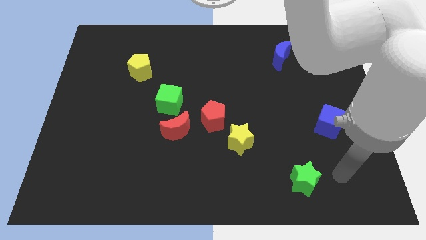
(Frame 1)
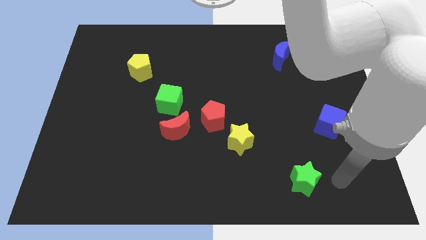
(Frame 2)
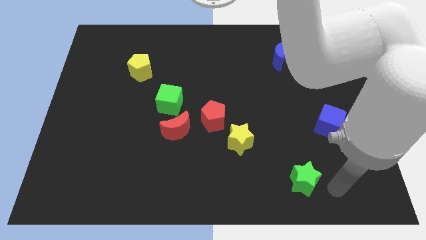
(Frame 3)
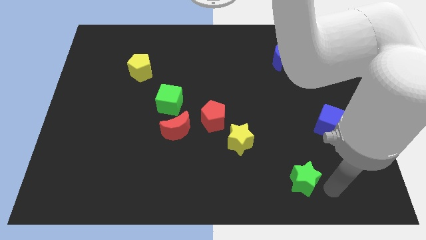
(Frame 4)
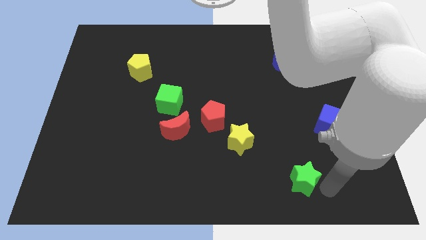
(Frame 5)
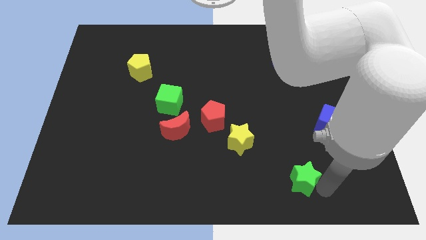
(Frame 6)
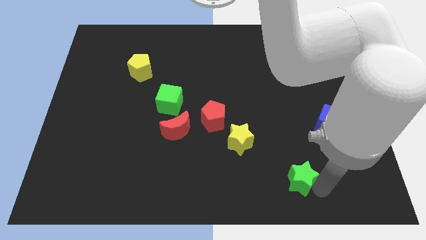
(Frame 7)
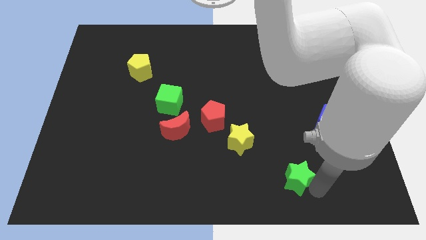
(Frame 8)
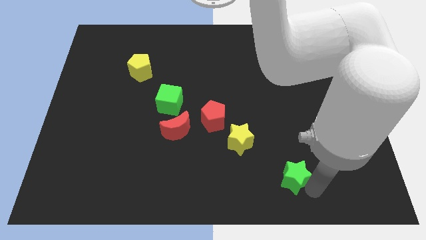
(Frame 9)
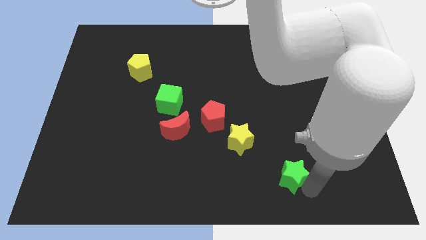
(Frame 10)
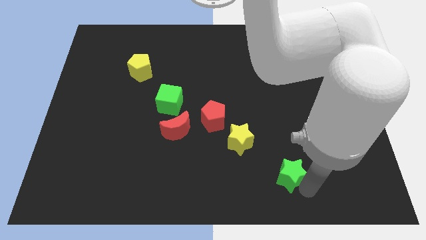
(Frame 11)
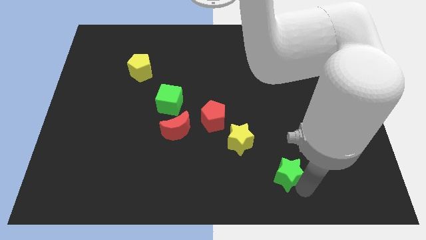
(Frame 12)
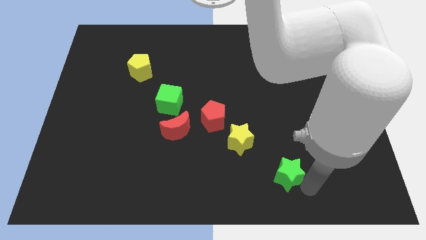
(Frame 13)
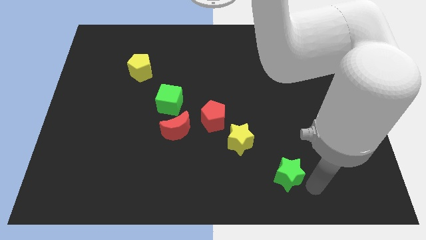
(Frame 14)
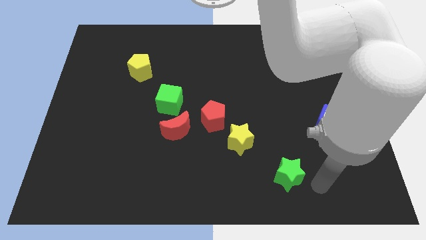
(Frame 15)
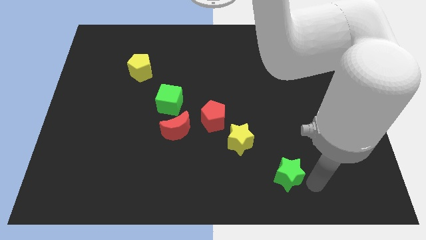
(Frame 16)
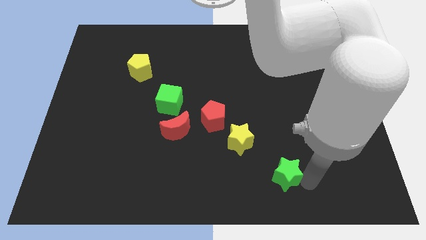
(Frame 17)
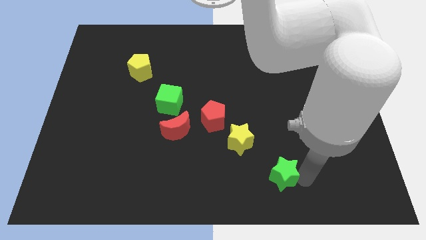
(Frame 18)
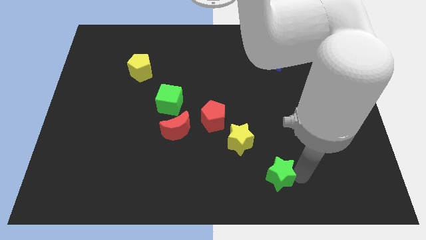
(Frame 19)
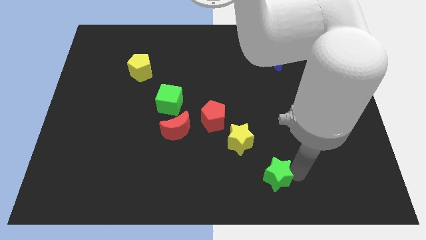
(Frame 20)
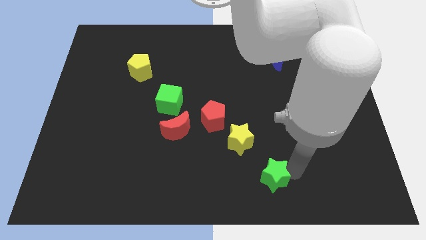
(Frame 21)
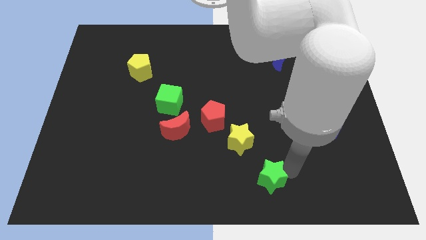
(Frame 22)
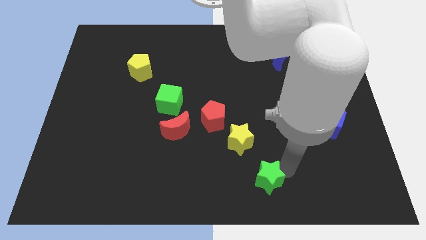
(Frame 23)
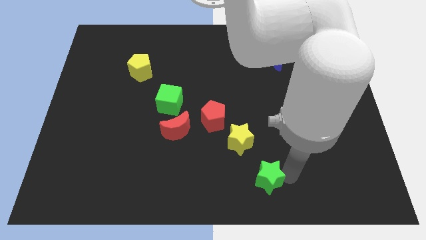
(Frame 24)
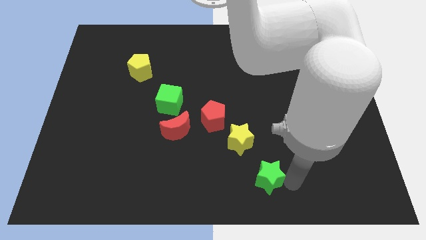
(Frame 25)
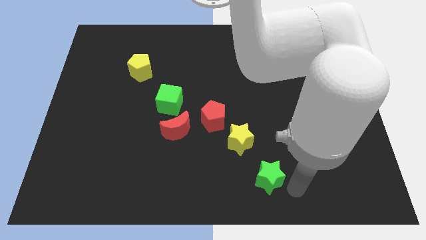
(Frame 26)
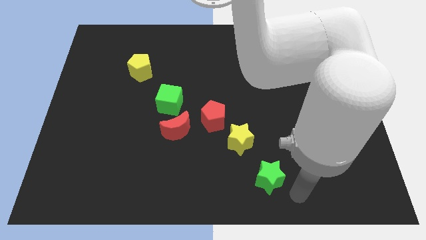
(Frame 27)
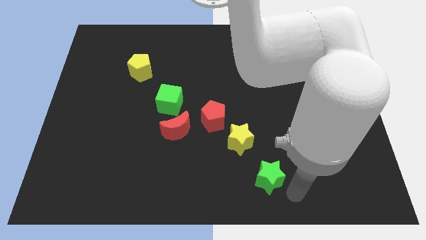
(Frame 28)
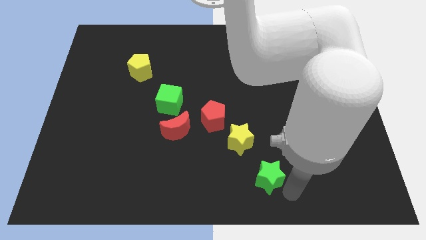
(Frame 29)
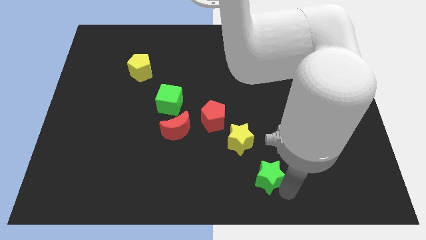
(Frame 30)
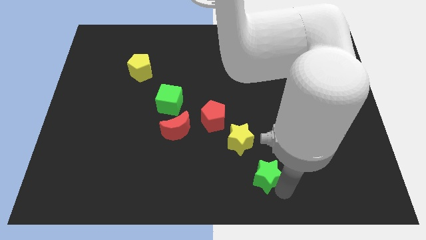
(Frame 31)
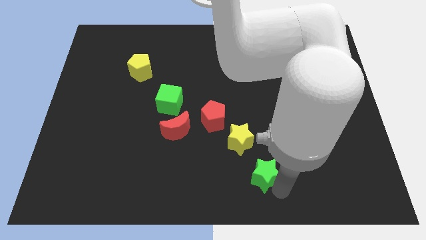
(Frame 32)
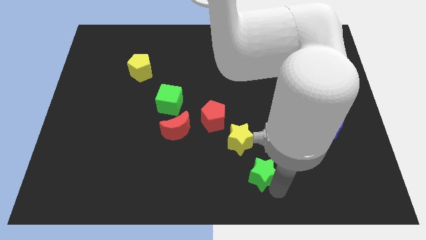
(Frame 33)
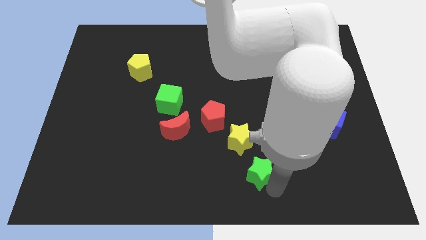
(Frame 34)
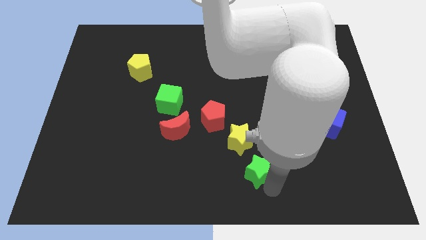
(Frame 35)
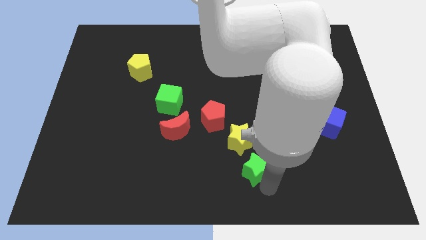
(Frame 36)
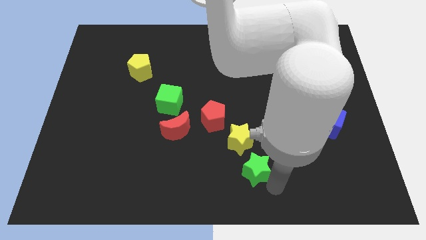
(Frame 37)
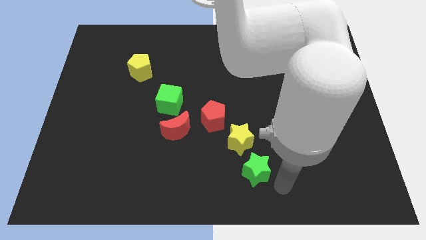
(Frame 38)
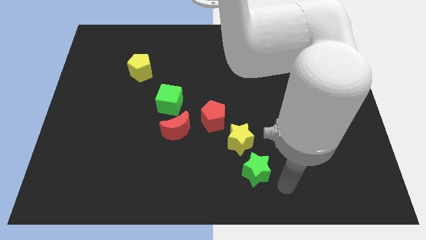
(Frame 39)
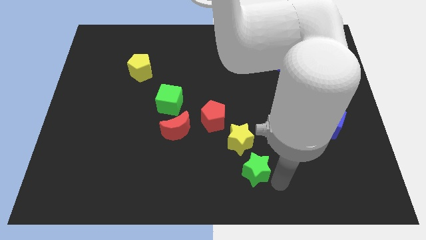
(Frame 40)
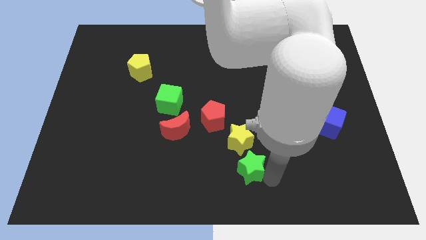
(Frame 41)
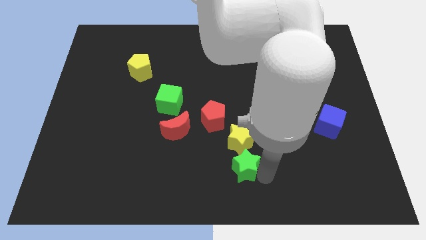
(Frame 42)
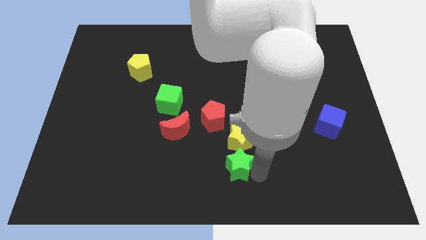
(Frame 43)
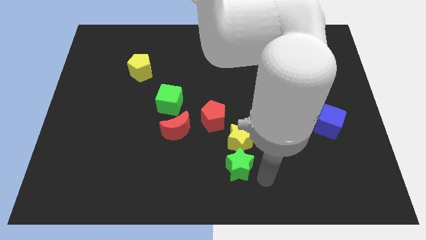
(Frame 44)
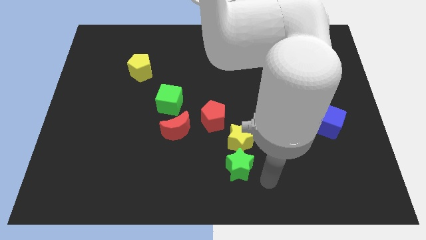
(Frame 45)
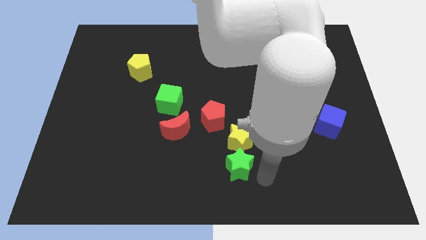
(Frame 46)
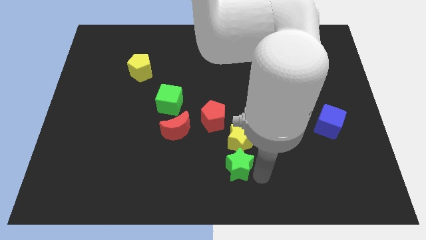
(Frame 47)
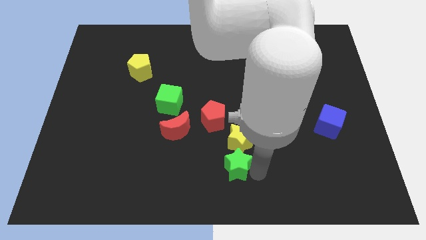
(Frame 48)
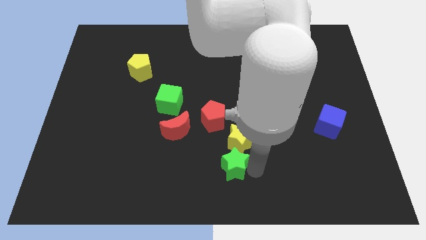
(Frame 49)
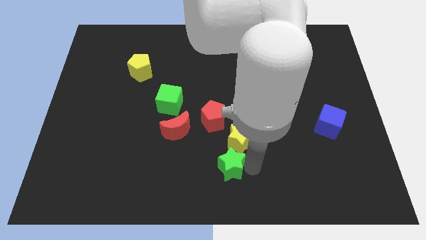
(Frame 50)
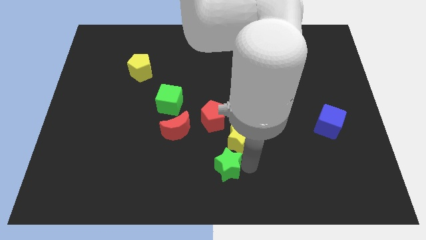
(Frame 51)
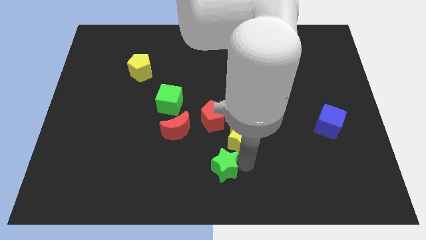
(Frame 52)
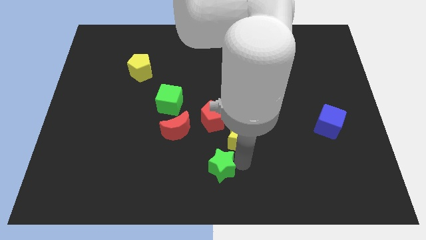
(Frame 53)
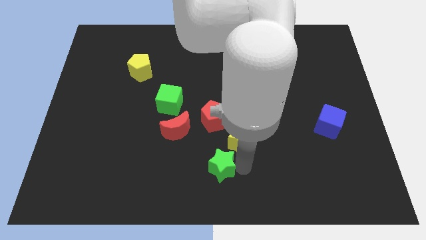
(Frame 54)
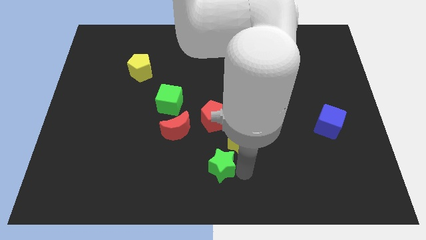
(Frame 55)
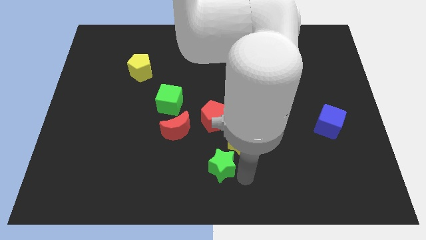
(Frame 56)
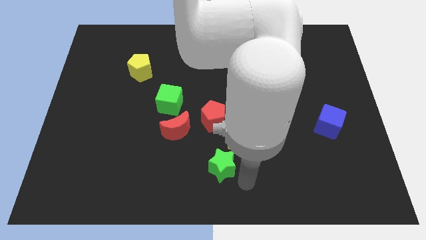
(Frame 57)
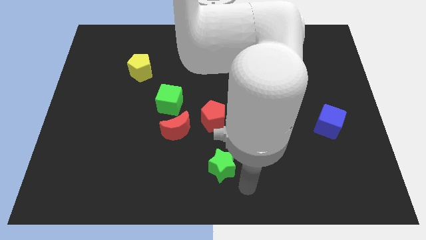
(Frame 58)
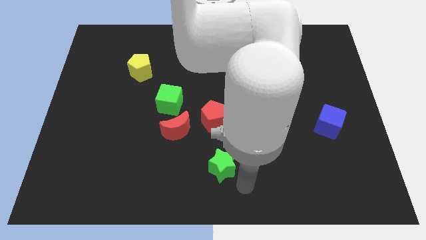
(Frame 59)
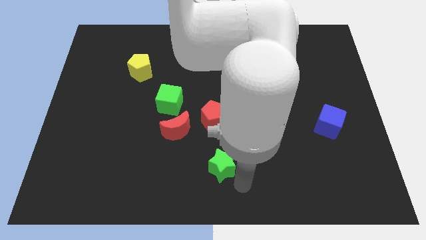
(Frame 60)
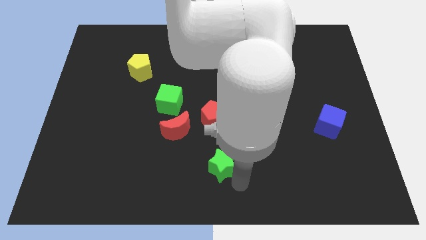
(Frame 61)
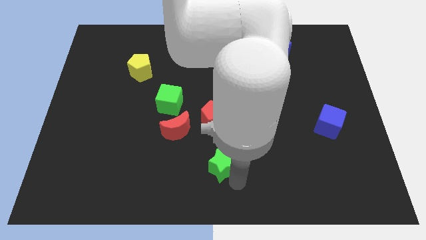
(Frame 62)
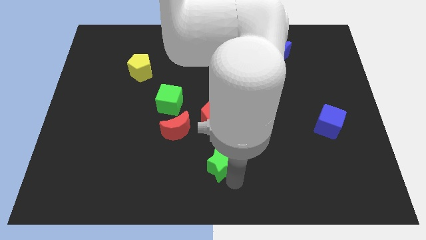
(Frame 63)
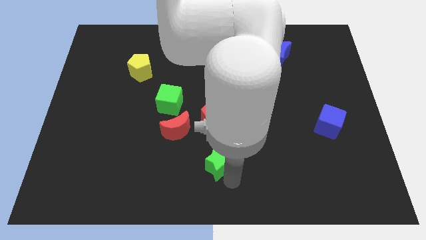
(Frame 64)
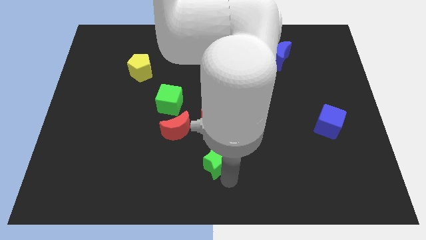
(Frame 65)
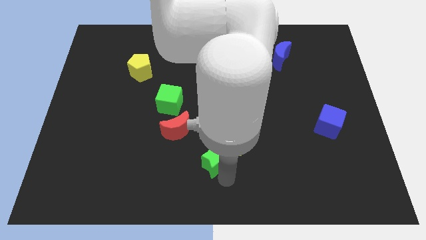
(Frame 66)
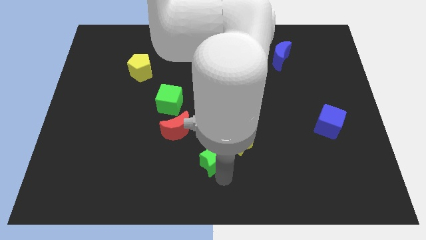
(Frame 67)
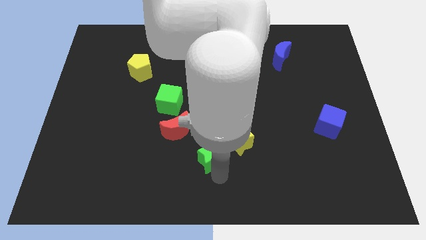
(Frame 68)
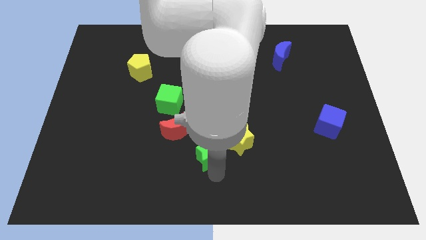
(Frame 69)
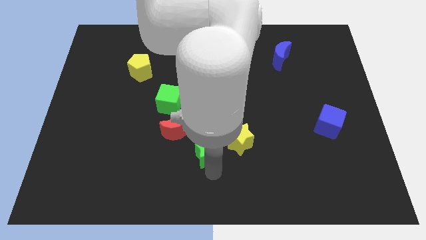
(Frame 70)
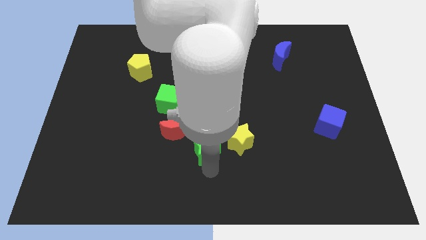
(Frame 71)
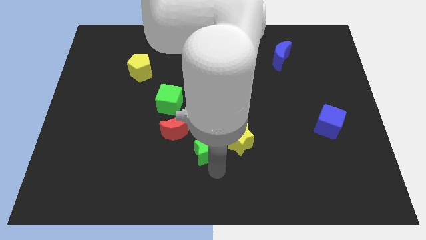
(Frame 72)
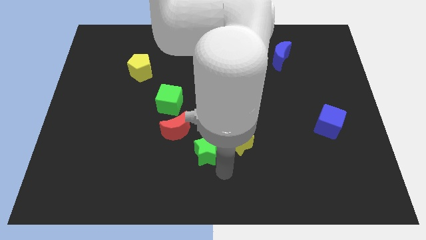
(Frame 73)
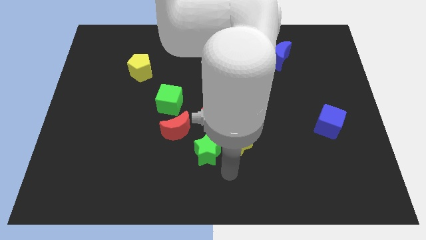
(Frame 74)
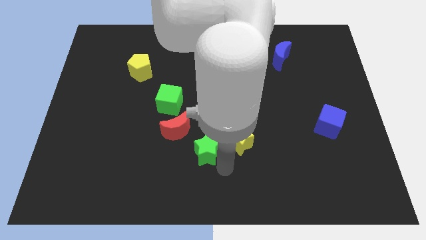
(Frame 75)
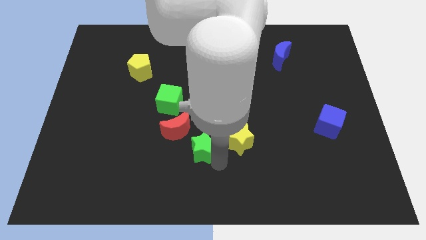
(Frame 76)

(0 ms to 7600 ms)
push the green star to the bottom left side of the red pentagon

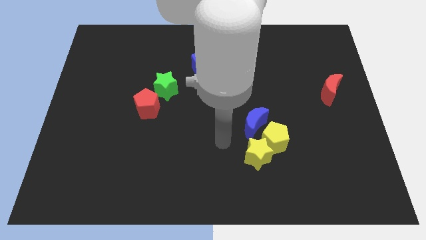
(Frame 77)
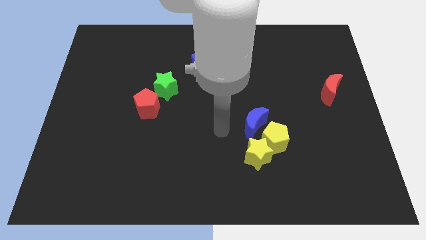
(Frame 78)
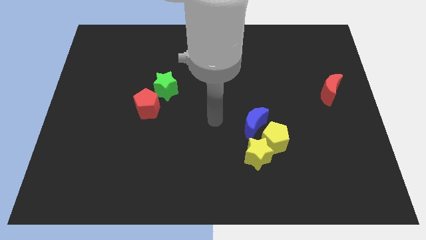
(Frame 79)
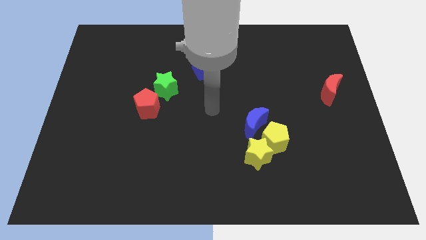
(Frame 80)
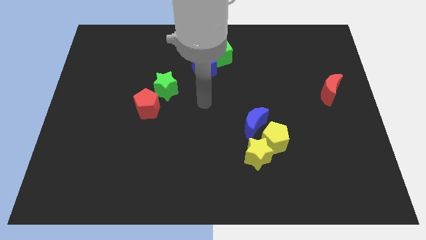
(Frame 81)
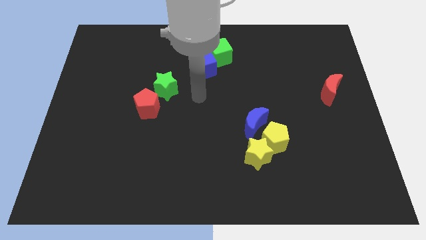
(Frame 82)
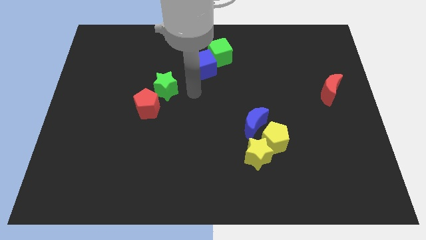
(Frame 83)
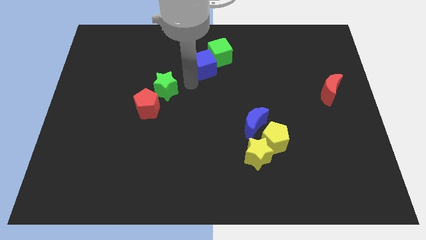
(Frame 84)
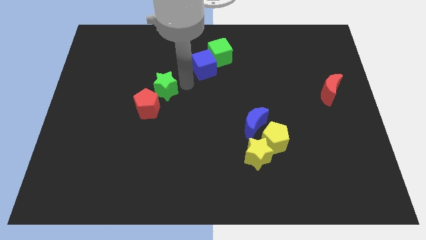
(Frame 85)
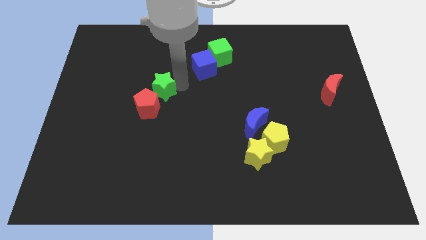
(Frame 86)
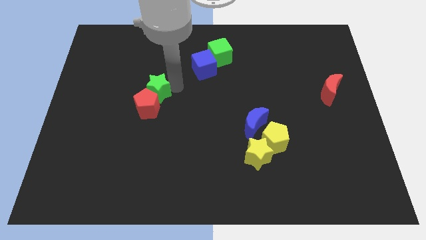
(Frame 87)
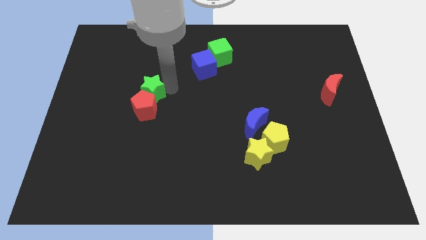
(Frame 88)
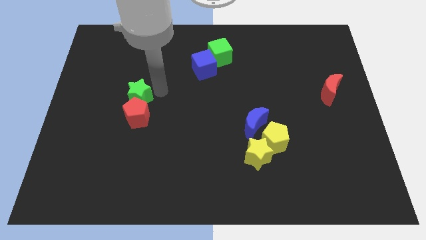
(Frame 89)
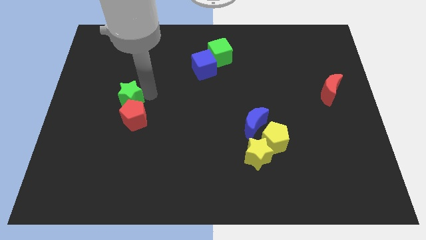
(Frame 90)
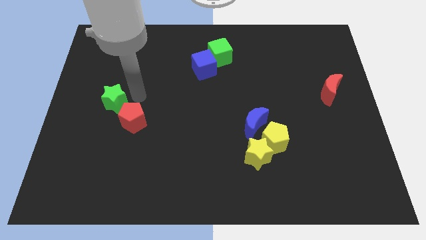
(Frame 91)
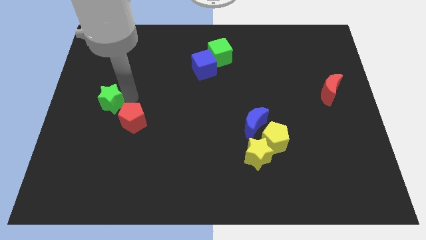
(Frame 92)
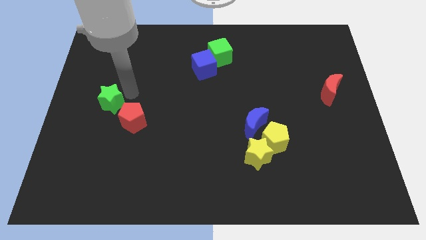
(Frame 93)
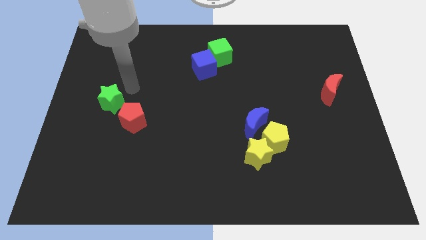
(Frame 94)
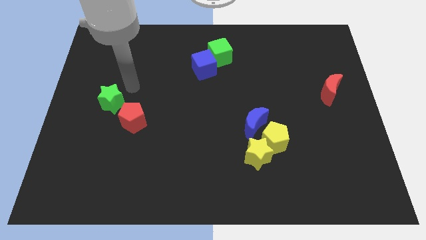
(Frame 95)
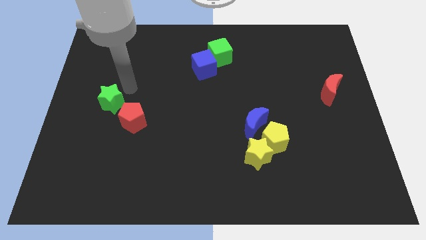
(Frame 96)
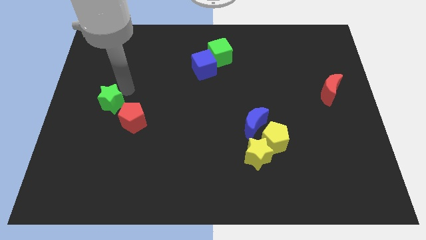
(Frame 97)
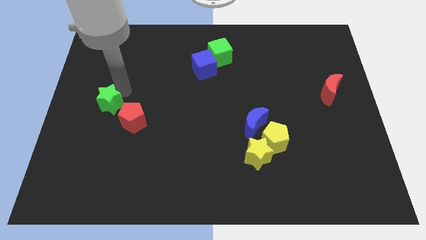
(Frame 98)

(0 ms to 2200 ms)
move the green star to the left of the red pentagon
